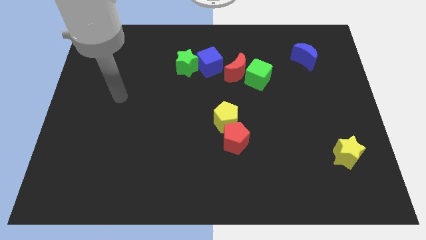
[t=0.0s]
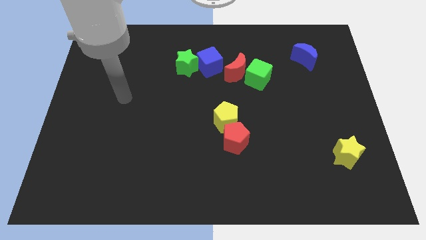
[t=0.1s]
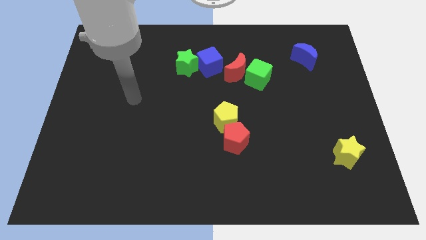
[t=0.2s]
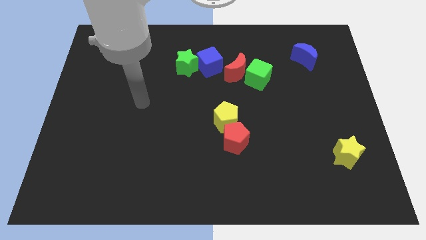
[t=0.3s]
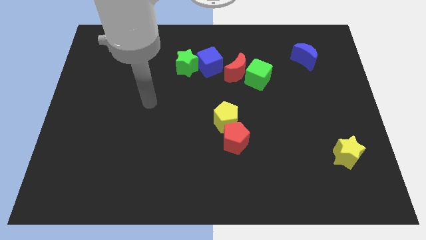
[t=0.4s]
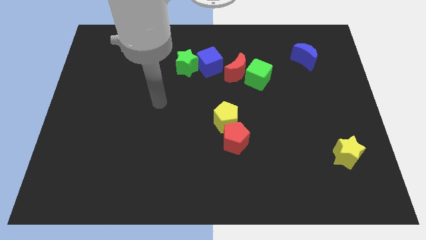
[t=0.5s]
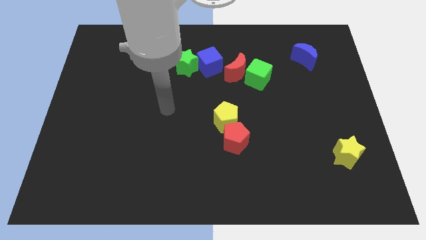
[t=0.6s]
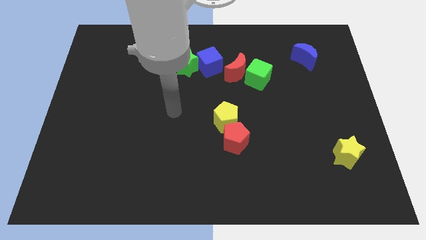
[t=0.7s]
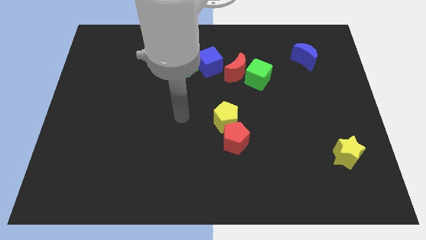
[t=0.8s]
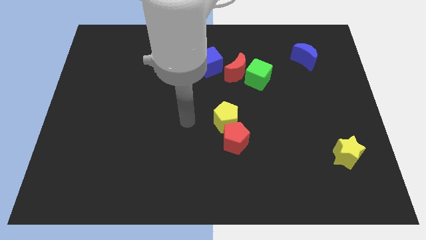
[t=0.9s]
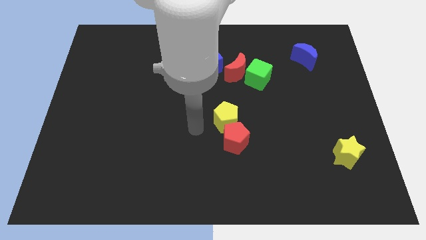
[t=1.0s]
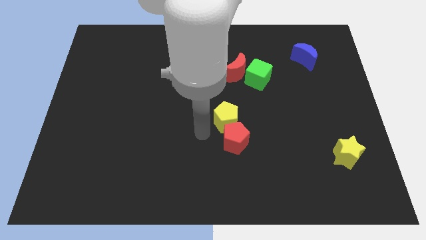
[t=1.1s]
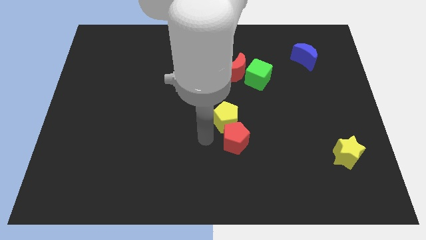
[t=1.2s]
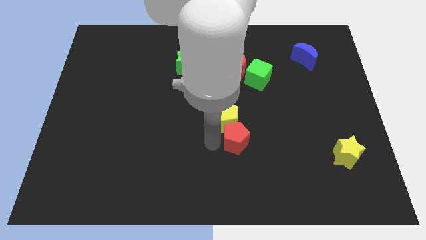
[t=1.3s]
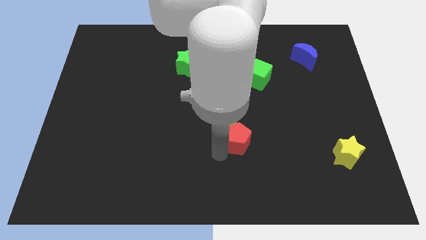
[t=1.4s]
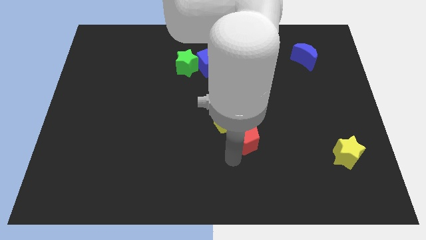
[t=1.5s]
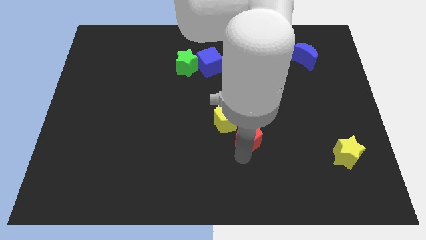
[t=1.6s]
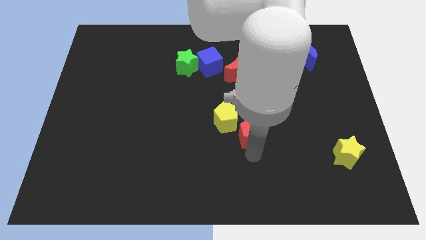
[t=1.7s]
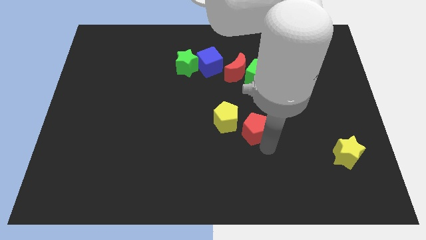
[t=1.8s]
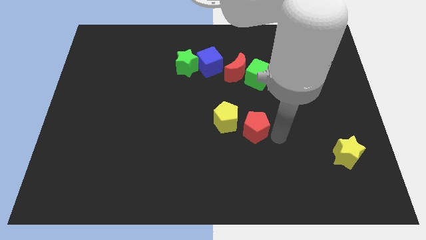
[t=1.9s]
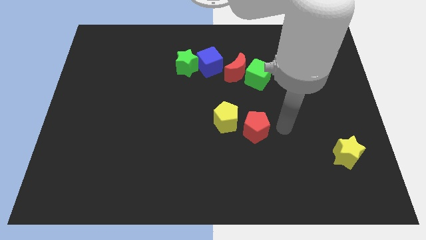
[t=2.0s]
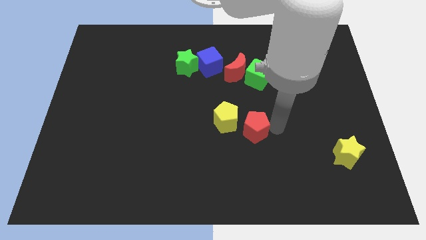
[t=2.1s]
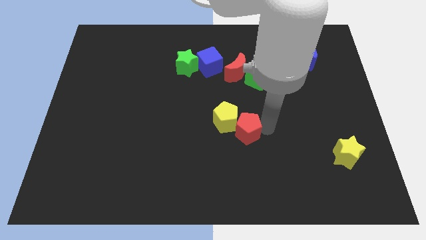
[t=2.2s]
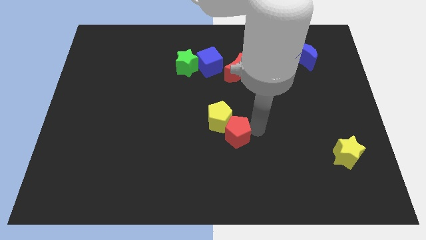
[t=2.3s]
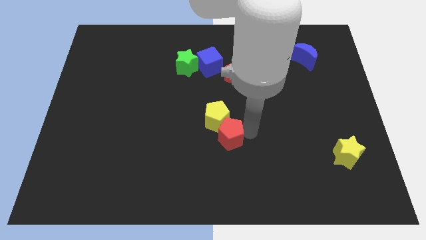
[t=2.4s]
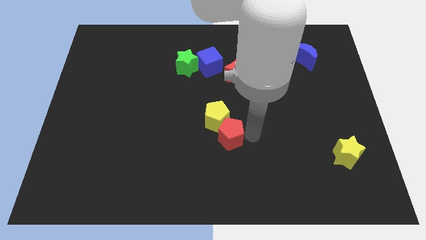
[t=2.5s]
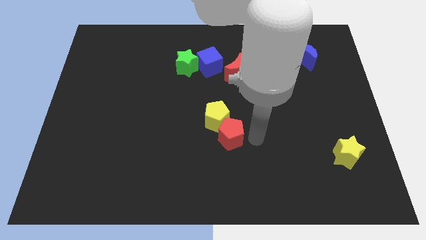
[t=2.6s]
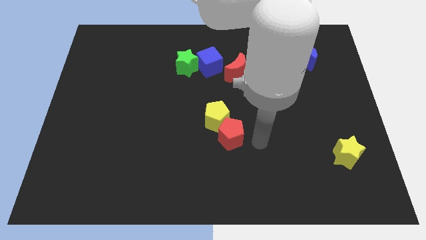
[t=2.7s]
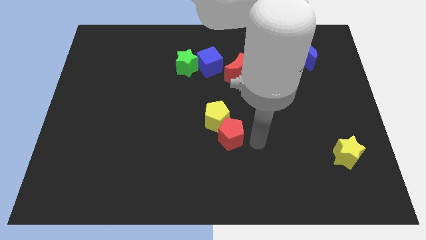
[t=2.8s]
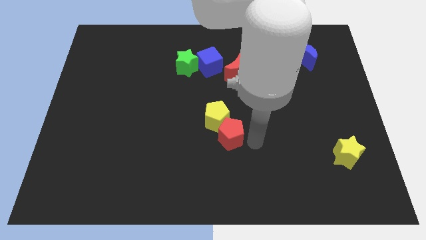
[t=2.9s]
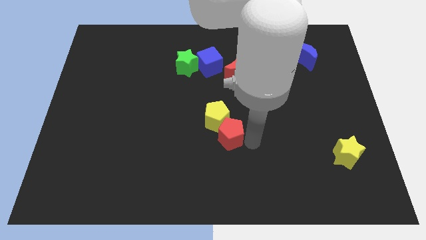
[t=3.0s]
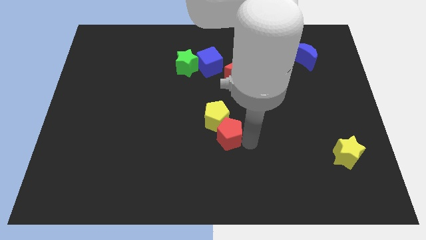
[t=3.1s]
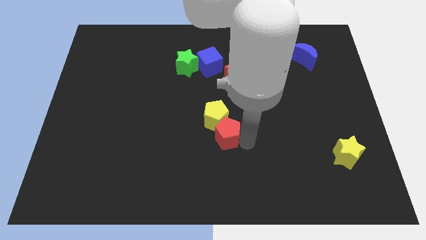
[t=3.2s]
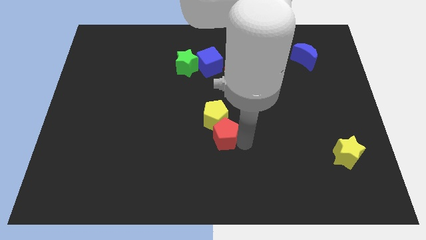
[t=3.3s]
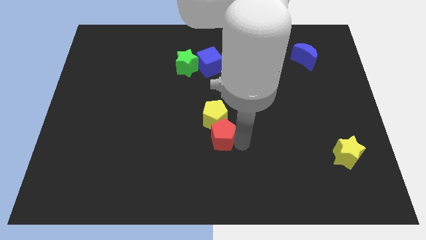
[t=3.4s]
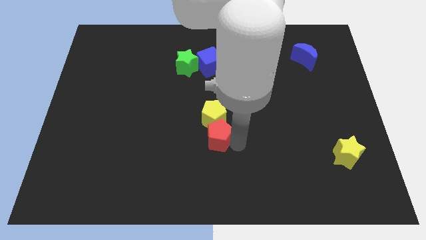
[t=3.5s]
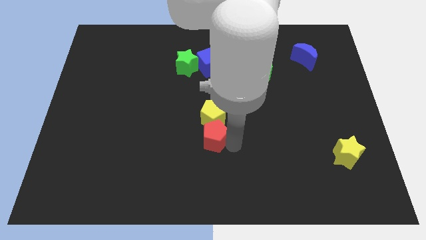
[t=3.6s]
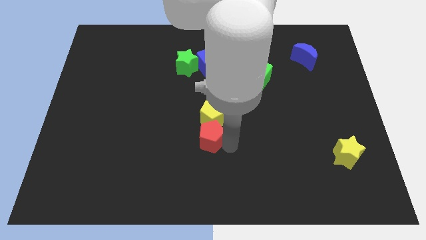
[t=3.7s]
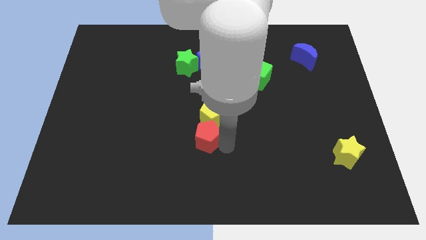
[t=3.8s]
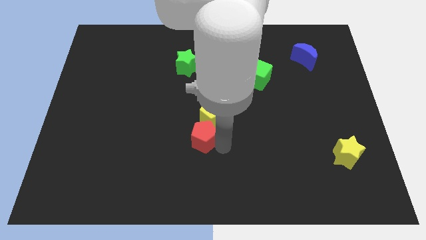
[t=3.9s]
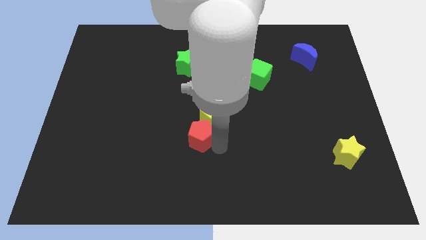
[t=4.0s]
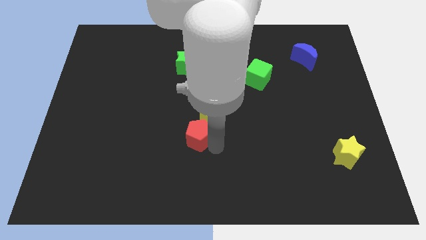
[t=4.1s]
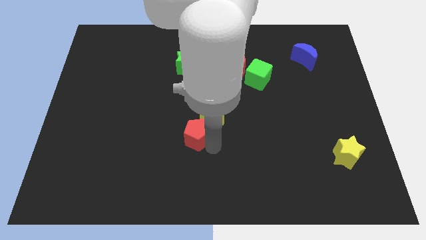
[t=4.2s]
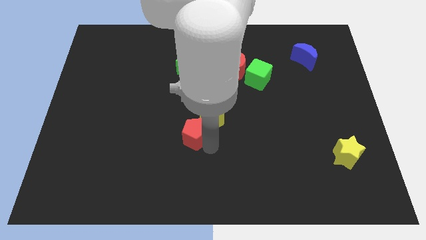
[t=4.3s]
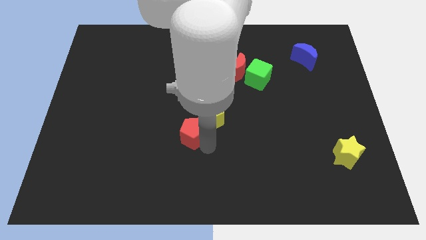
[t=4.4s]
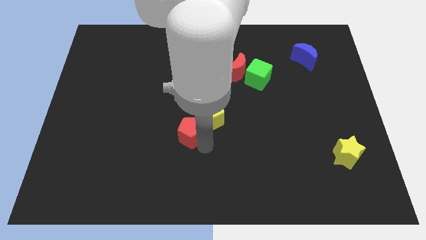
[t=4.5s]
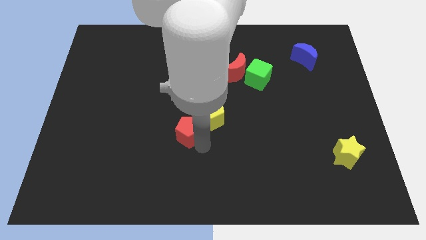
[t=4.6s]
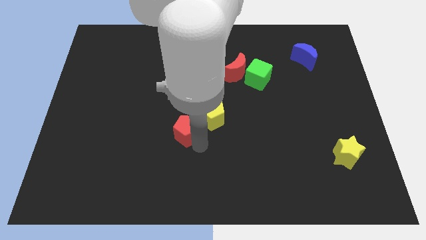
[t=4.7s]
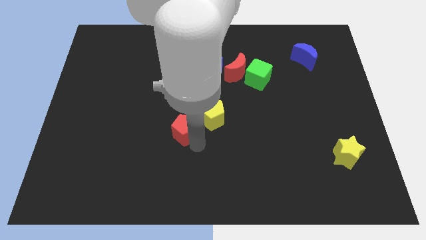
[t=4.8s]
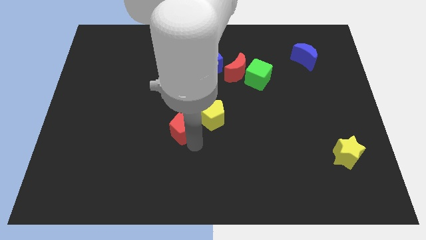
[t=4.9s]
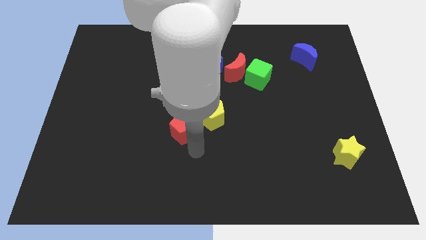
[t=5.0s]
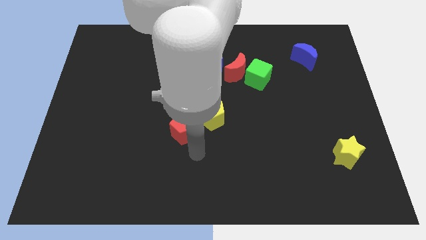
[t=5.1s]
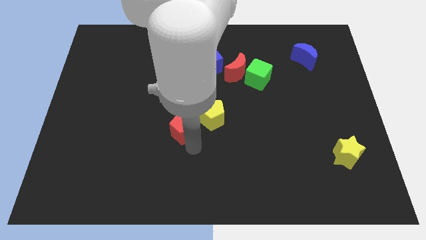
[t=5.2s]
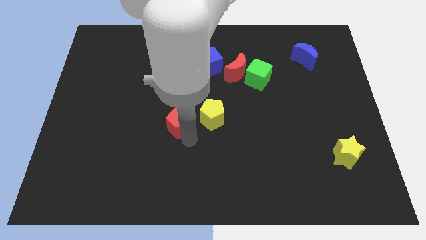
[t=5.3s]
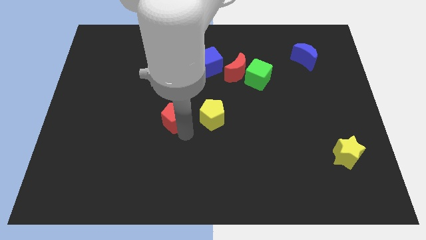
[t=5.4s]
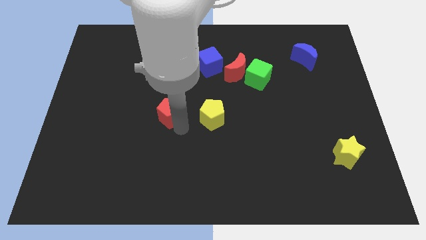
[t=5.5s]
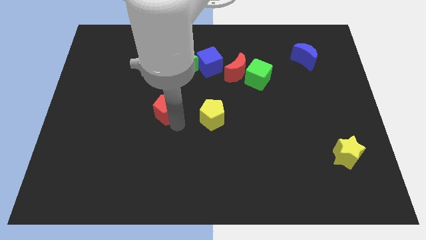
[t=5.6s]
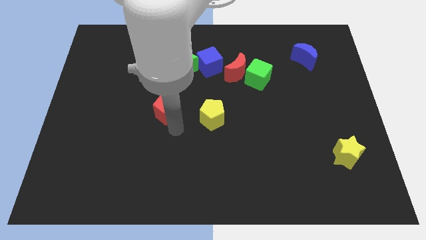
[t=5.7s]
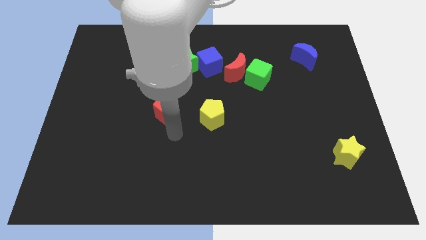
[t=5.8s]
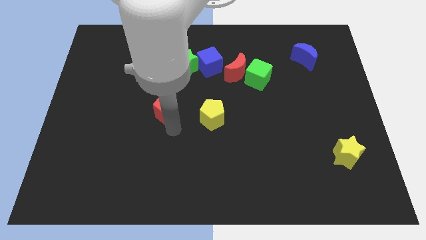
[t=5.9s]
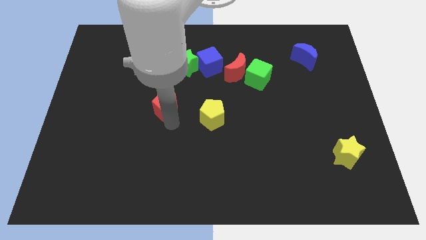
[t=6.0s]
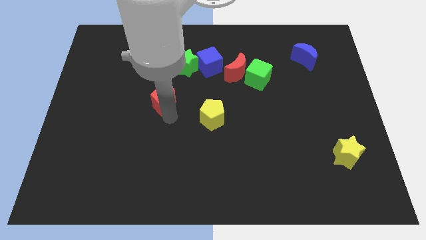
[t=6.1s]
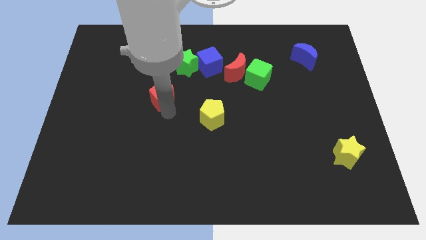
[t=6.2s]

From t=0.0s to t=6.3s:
move the red pentagon diagonally up and left

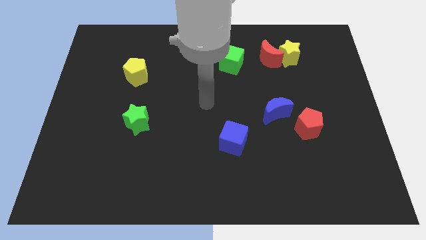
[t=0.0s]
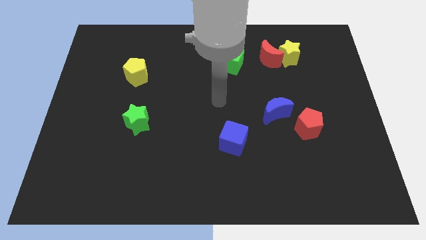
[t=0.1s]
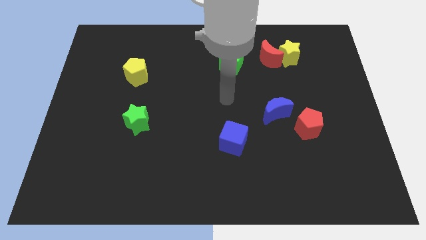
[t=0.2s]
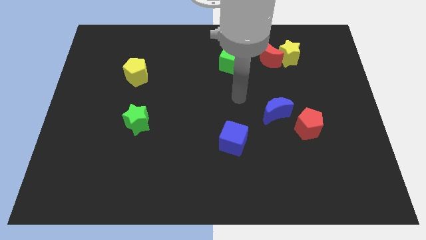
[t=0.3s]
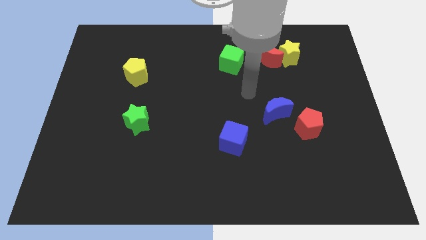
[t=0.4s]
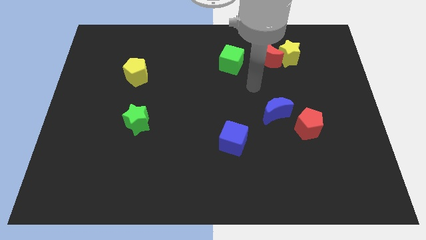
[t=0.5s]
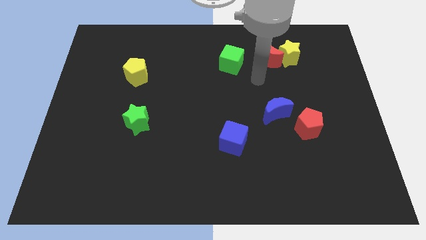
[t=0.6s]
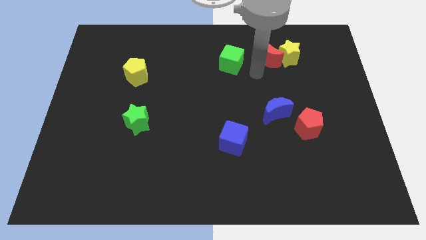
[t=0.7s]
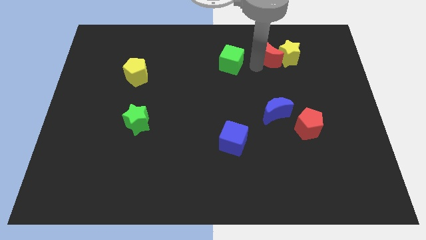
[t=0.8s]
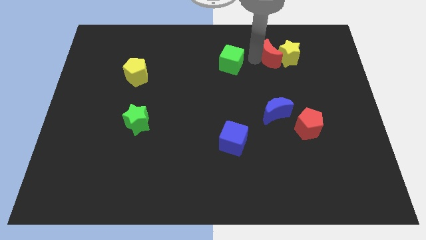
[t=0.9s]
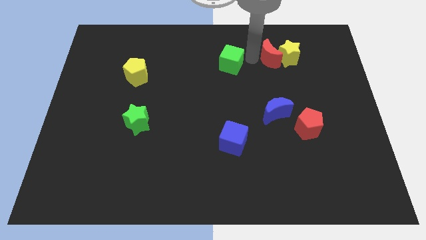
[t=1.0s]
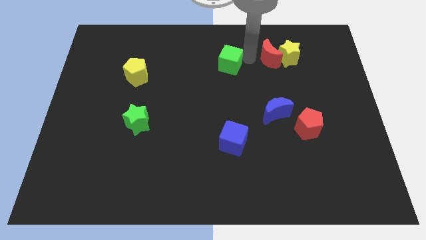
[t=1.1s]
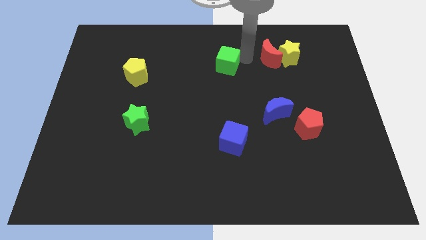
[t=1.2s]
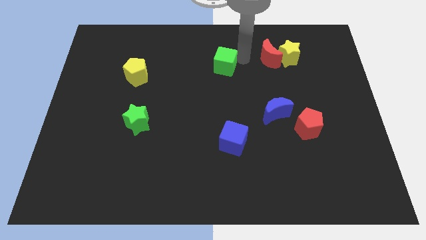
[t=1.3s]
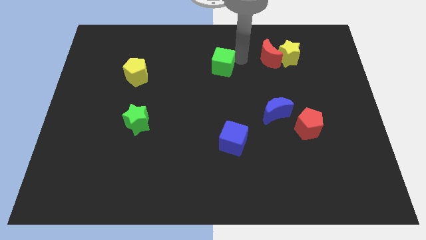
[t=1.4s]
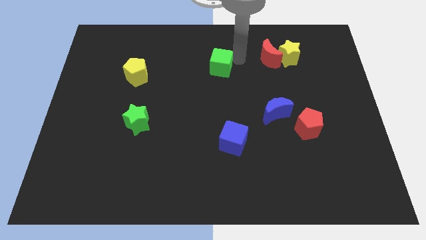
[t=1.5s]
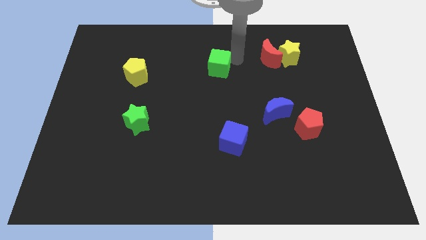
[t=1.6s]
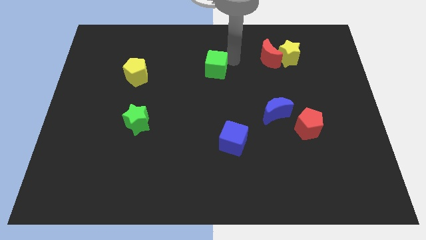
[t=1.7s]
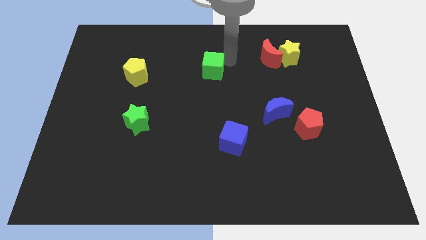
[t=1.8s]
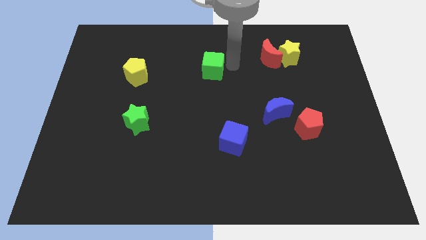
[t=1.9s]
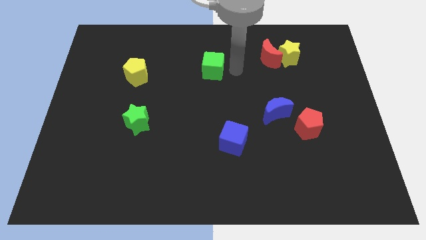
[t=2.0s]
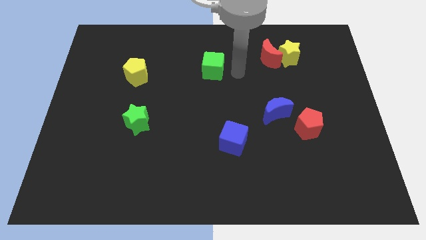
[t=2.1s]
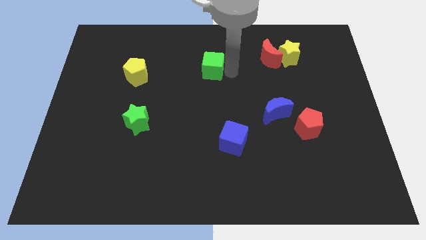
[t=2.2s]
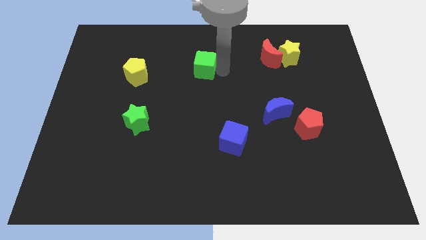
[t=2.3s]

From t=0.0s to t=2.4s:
move the green cube to the left a bit
